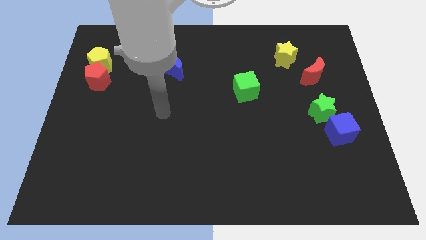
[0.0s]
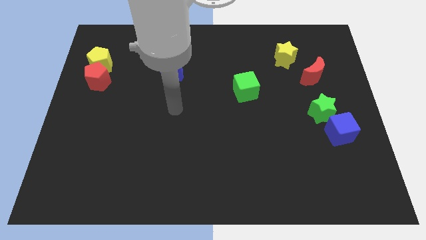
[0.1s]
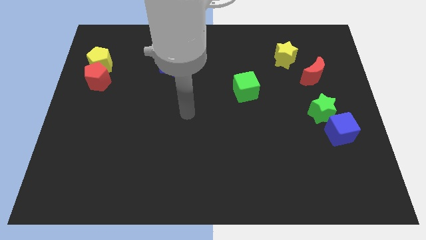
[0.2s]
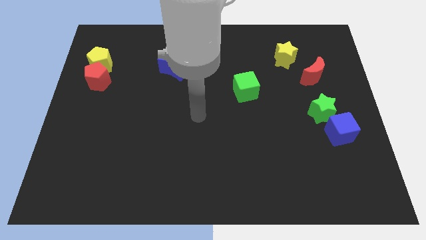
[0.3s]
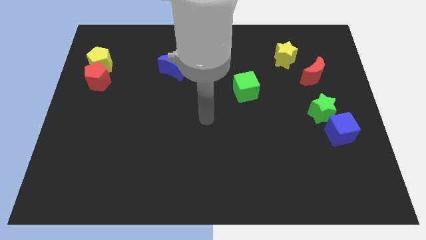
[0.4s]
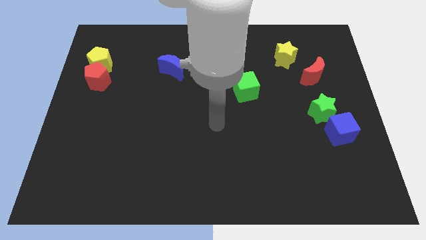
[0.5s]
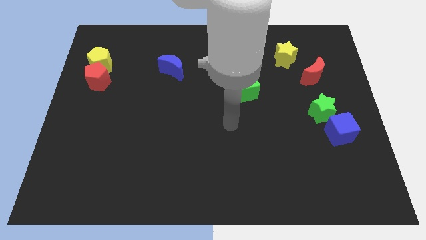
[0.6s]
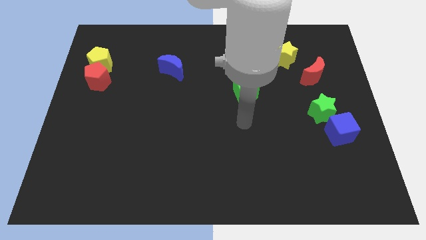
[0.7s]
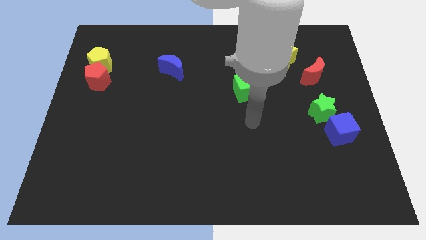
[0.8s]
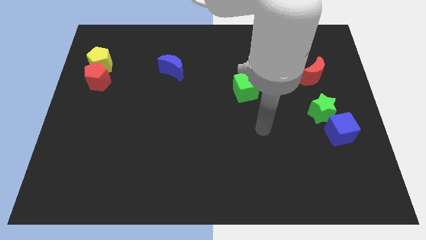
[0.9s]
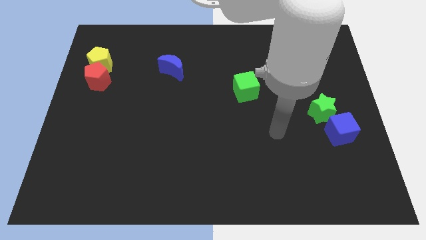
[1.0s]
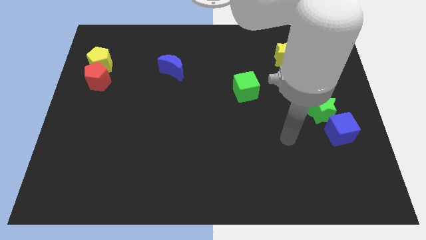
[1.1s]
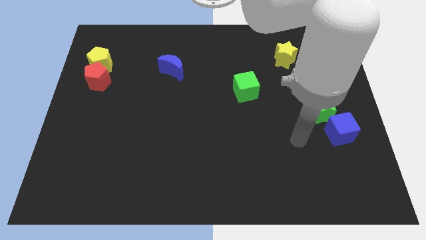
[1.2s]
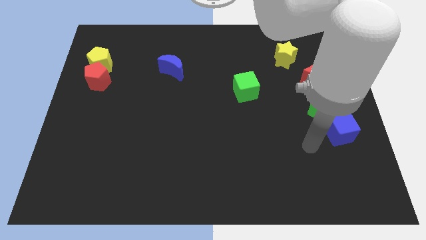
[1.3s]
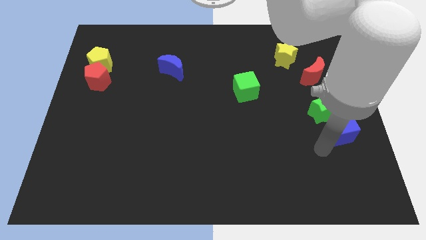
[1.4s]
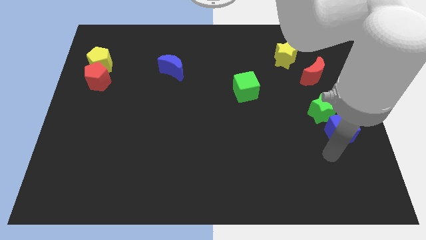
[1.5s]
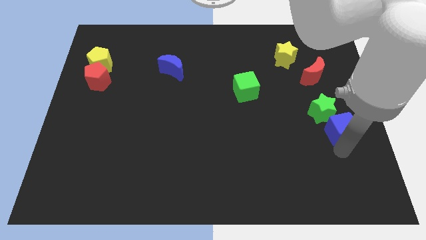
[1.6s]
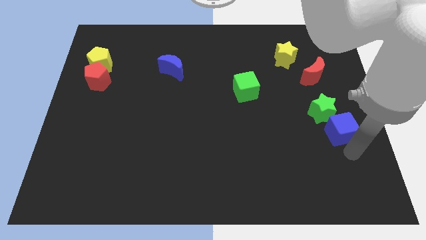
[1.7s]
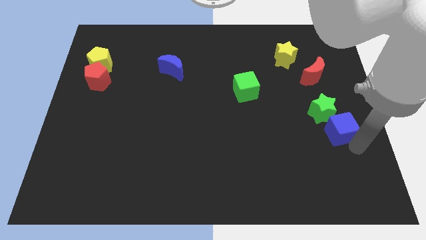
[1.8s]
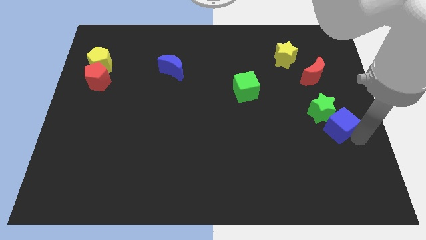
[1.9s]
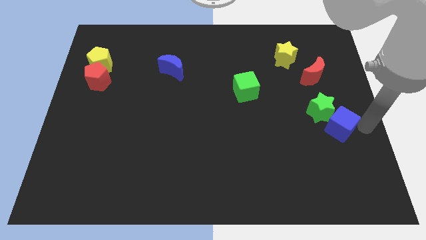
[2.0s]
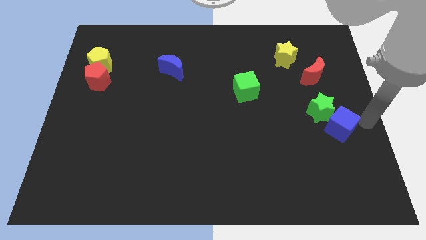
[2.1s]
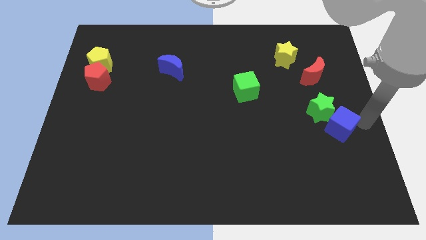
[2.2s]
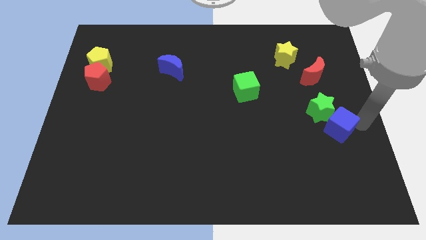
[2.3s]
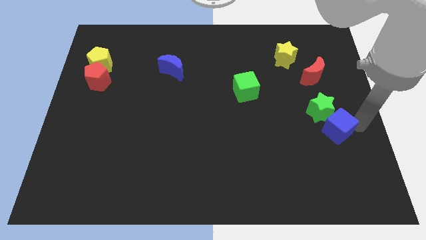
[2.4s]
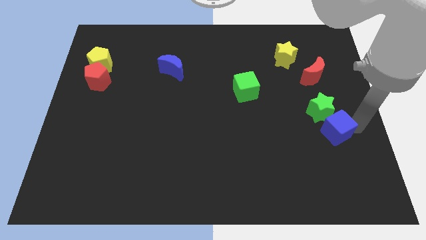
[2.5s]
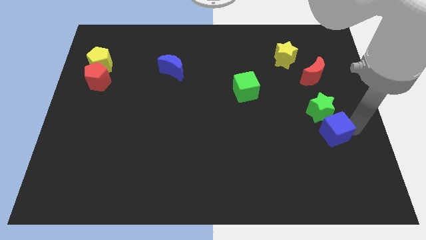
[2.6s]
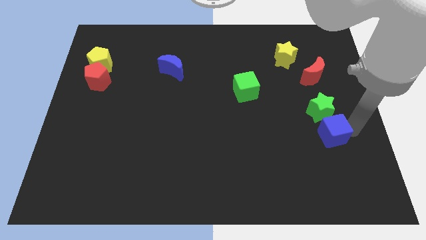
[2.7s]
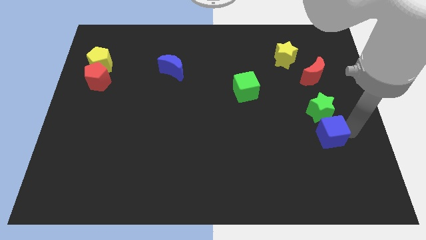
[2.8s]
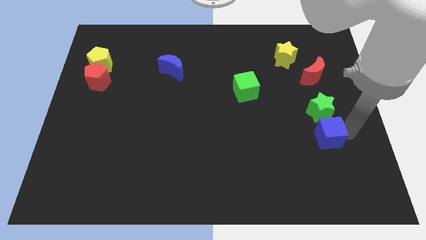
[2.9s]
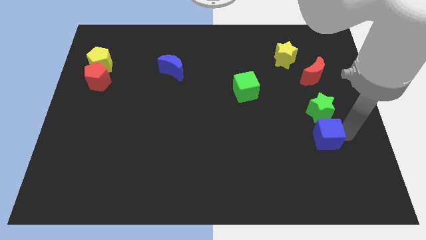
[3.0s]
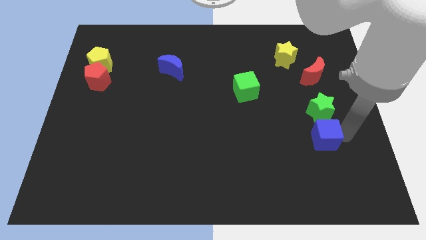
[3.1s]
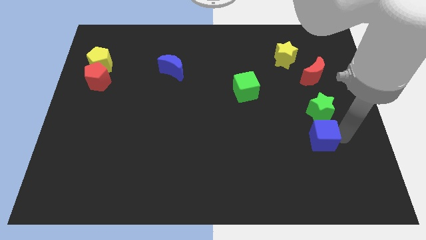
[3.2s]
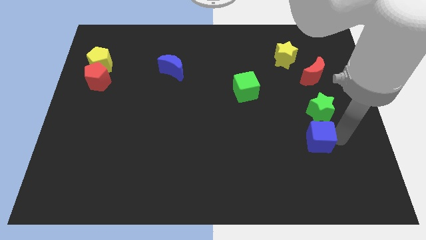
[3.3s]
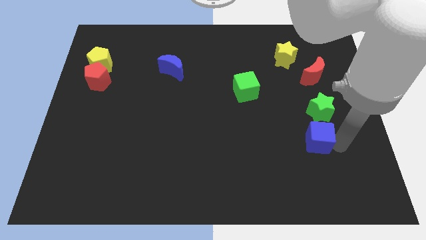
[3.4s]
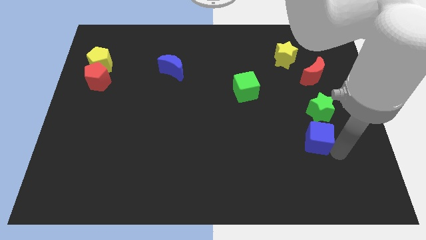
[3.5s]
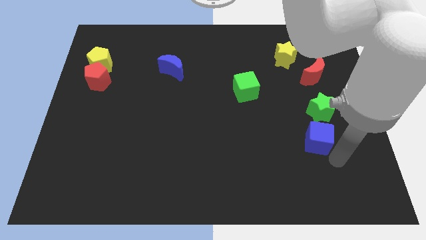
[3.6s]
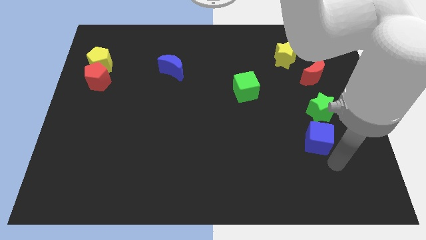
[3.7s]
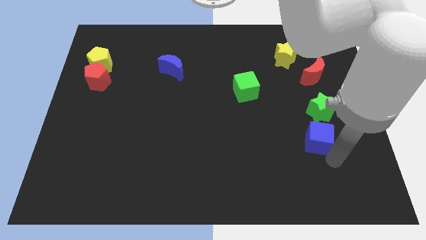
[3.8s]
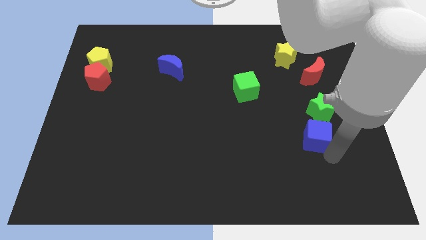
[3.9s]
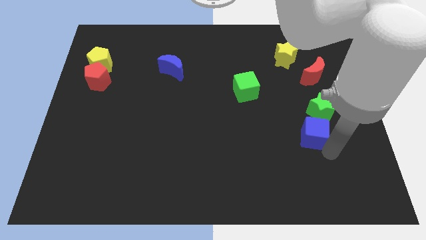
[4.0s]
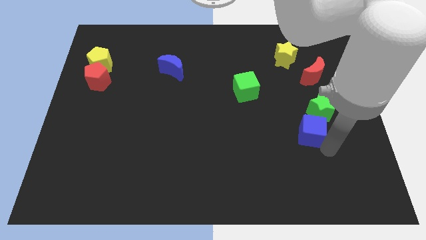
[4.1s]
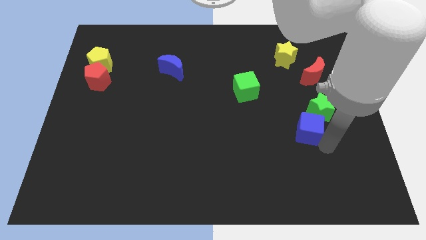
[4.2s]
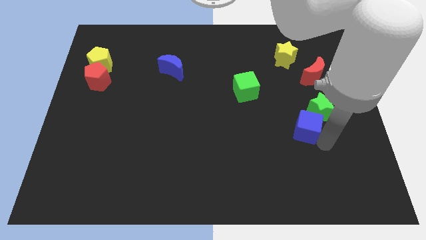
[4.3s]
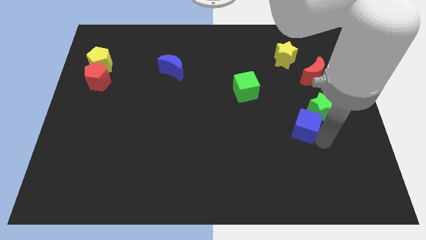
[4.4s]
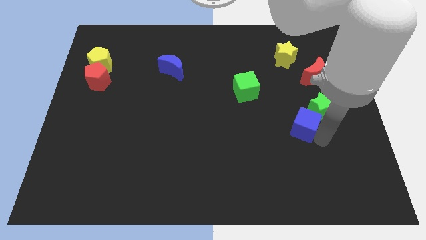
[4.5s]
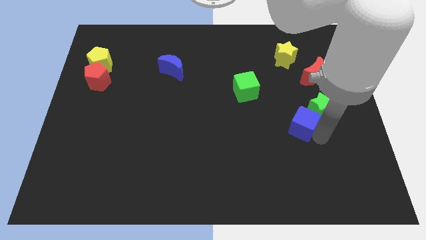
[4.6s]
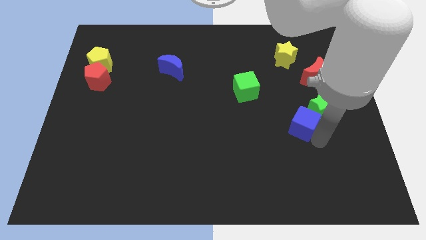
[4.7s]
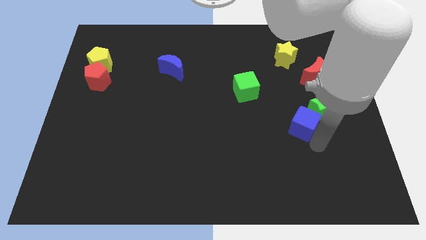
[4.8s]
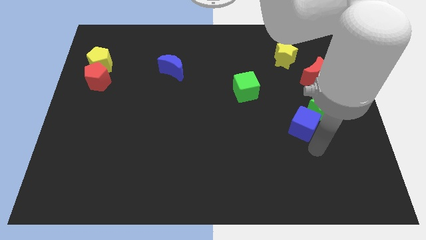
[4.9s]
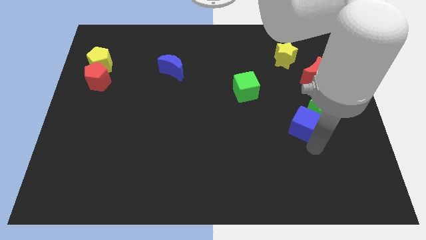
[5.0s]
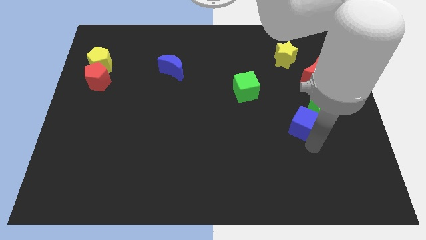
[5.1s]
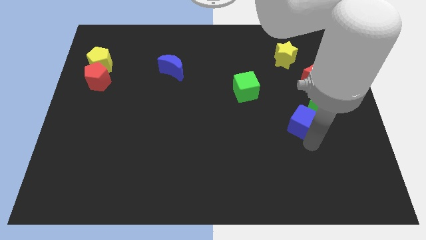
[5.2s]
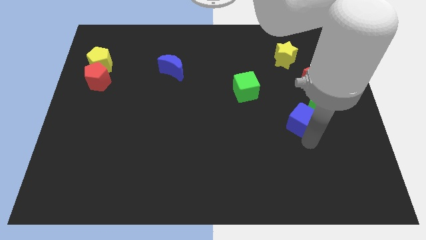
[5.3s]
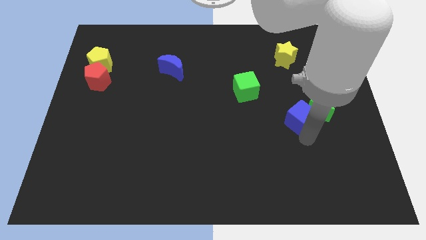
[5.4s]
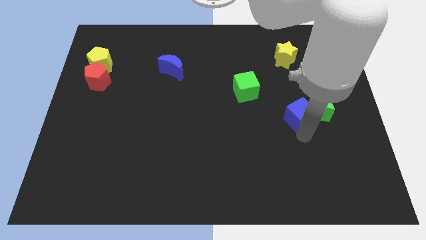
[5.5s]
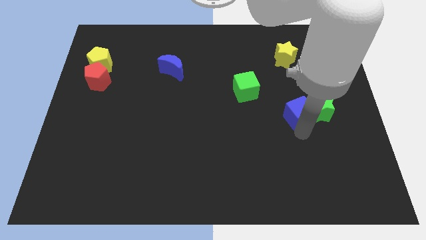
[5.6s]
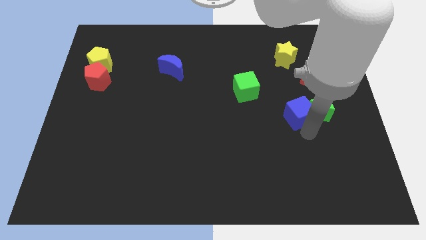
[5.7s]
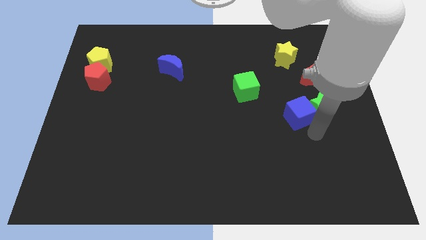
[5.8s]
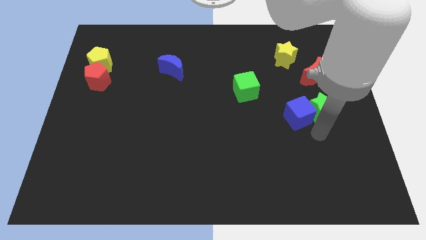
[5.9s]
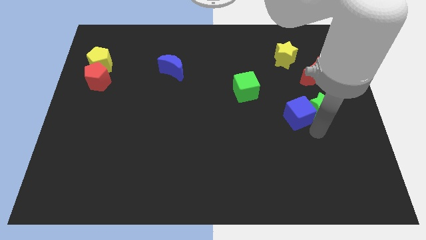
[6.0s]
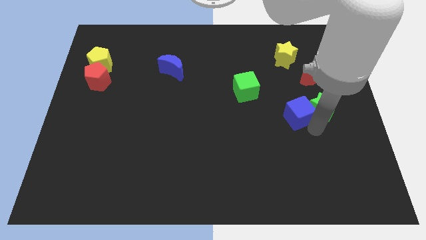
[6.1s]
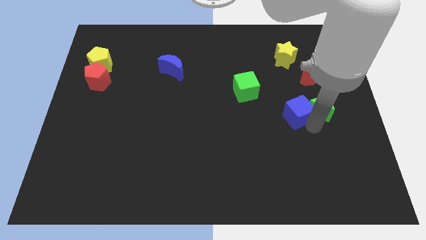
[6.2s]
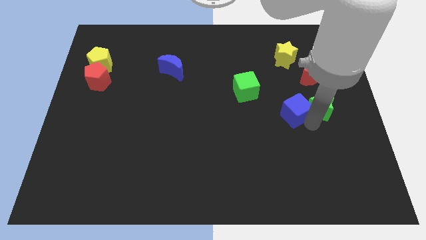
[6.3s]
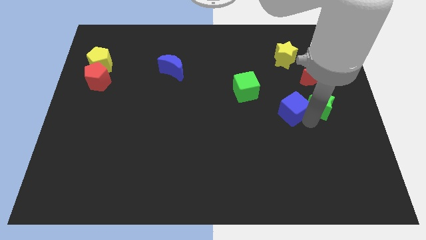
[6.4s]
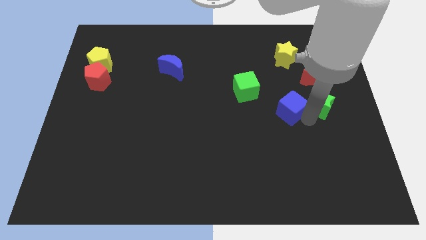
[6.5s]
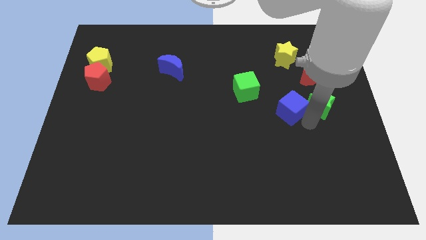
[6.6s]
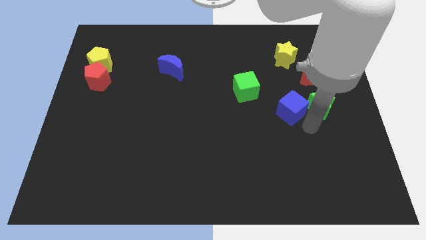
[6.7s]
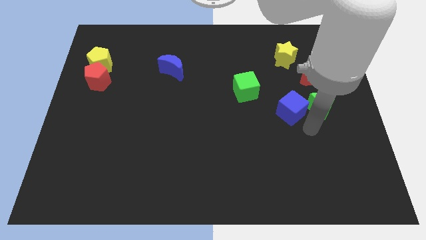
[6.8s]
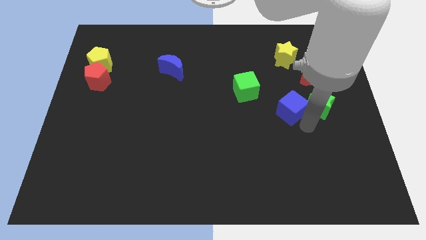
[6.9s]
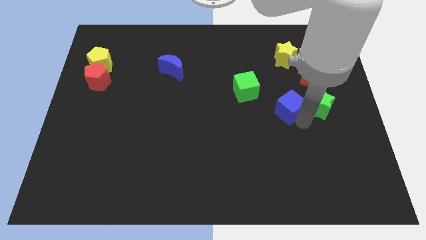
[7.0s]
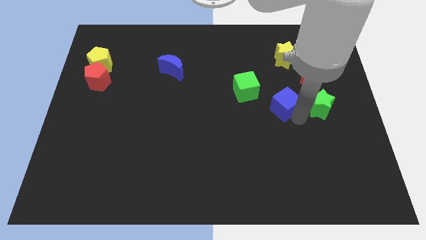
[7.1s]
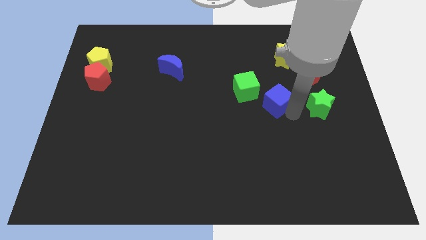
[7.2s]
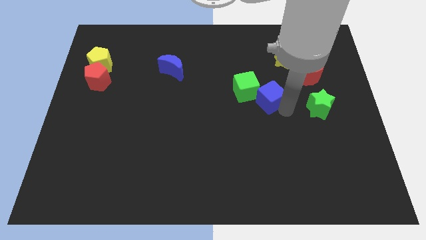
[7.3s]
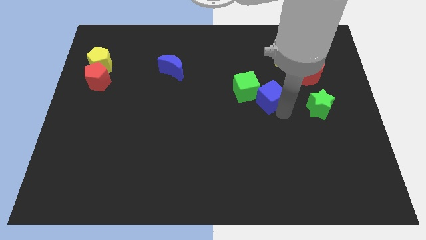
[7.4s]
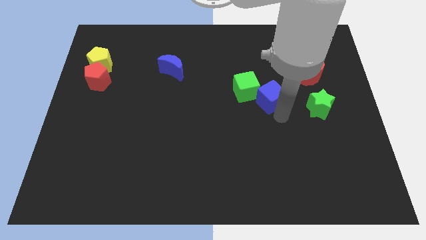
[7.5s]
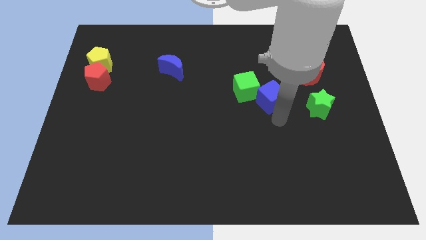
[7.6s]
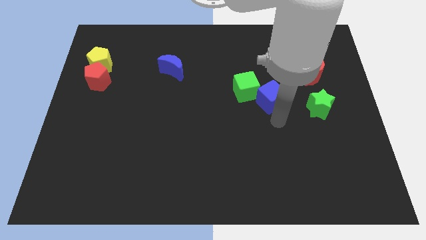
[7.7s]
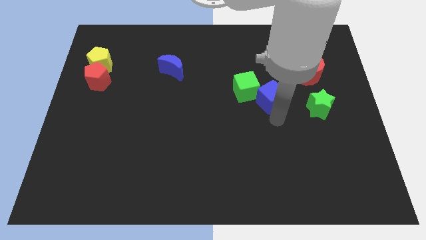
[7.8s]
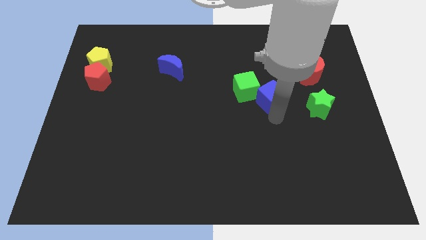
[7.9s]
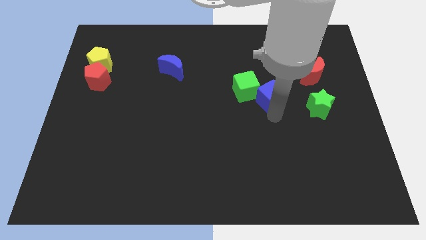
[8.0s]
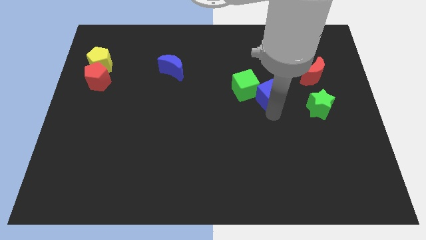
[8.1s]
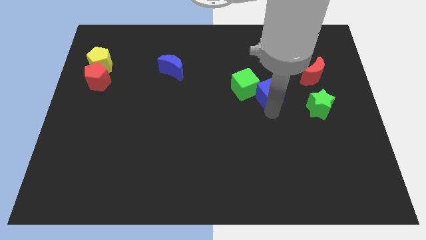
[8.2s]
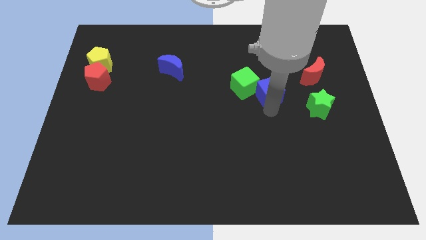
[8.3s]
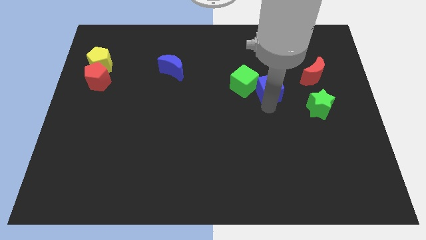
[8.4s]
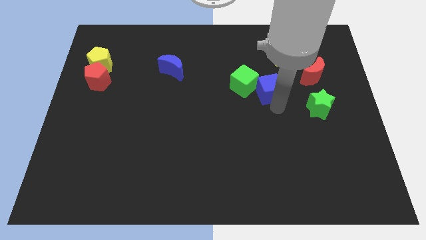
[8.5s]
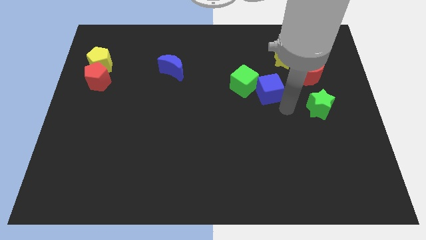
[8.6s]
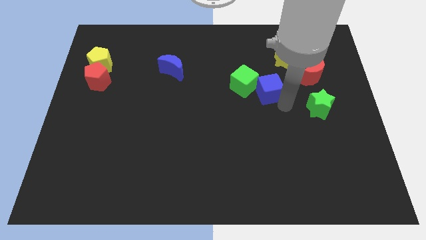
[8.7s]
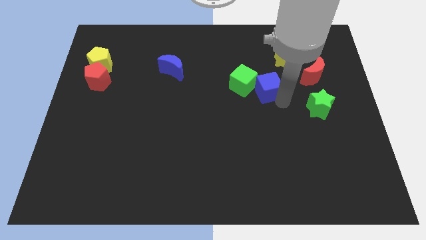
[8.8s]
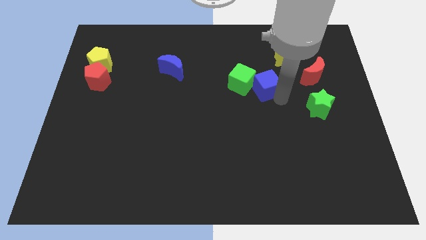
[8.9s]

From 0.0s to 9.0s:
move the blue cube up and to the left
